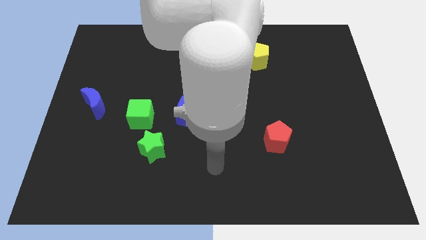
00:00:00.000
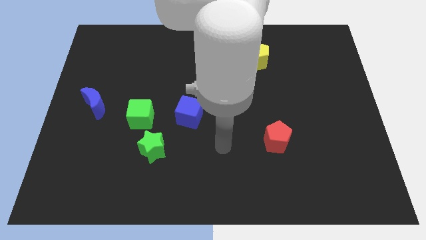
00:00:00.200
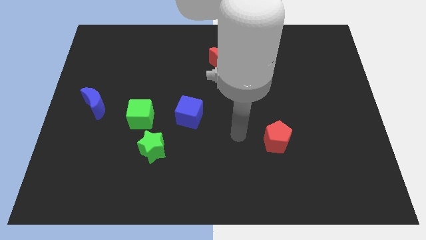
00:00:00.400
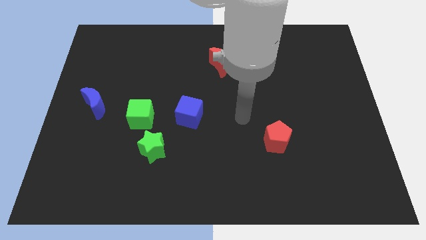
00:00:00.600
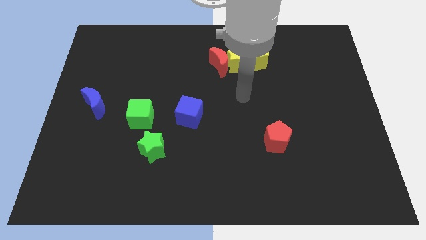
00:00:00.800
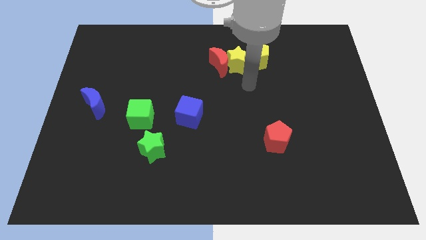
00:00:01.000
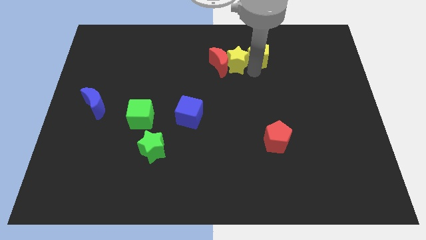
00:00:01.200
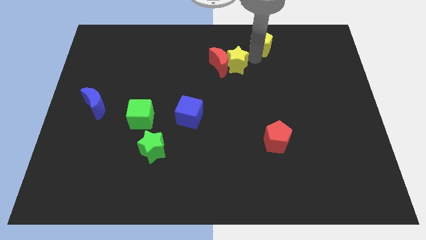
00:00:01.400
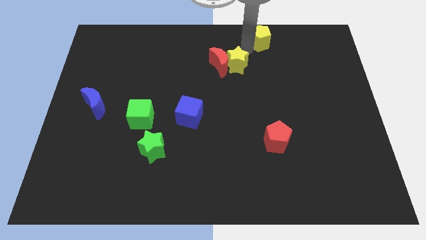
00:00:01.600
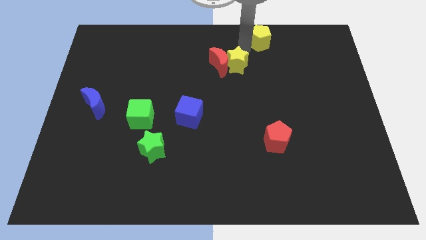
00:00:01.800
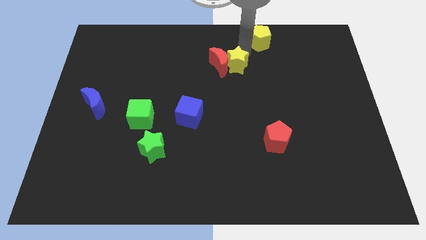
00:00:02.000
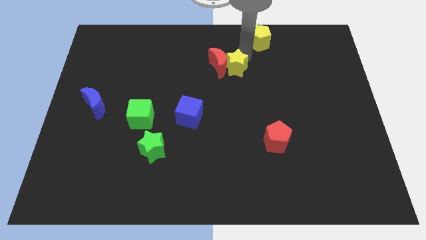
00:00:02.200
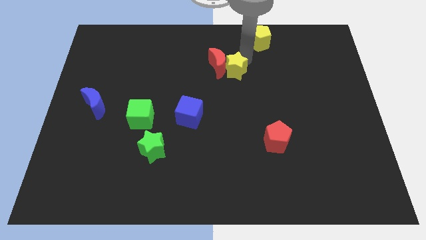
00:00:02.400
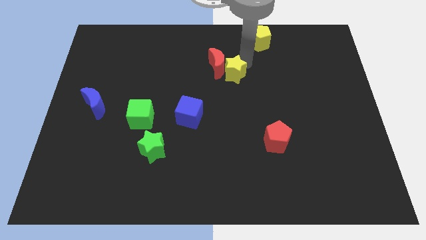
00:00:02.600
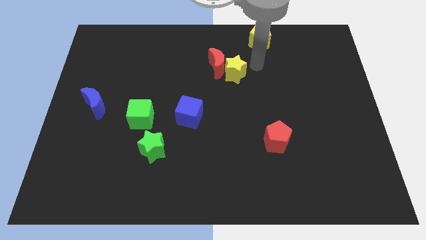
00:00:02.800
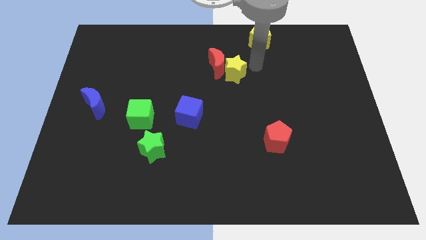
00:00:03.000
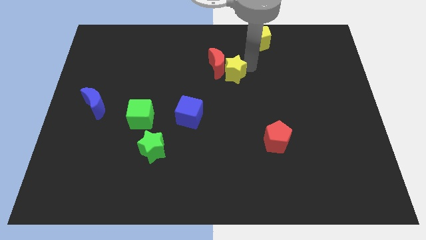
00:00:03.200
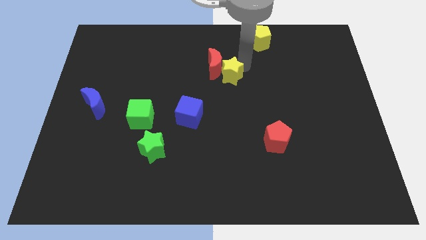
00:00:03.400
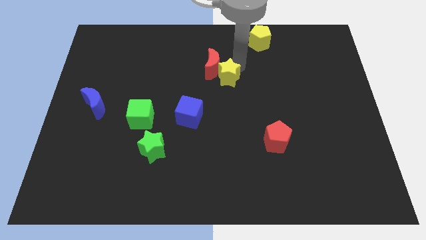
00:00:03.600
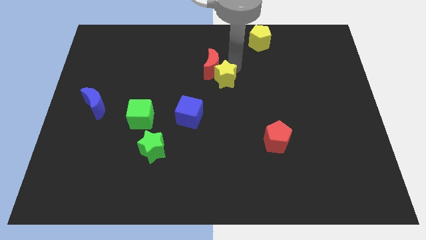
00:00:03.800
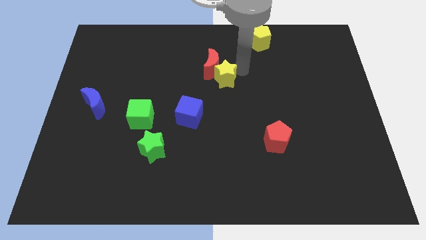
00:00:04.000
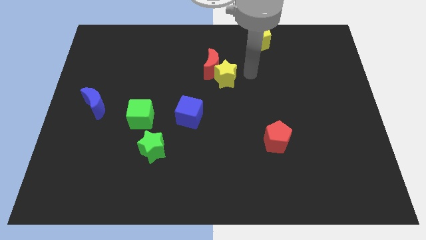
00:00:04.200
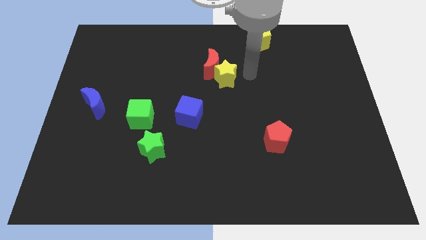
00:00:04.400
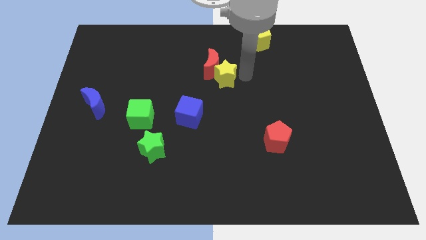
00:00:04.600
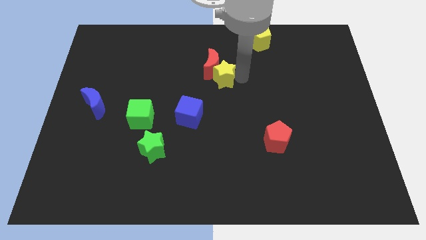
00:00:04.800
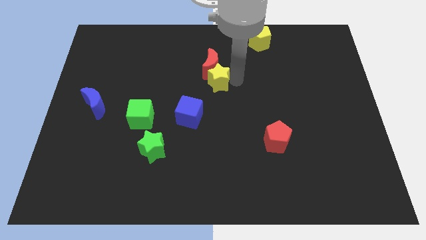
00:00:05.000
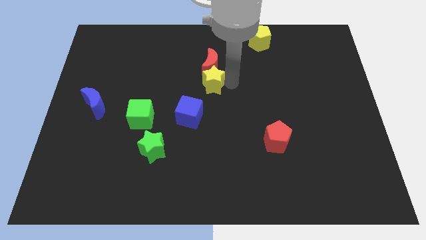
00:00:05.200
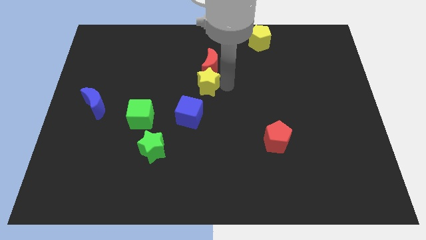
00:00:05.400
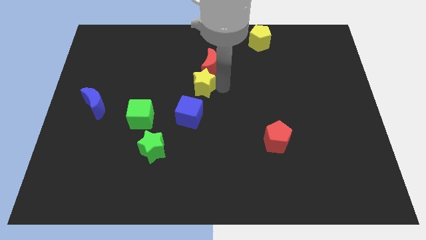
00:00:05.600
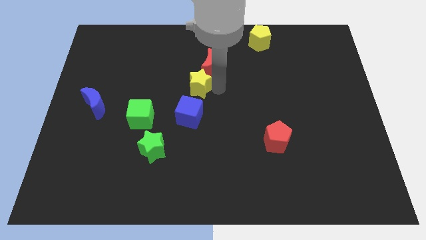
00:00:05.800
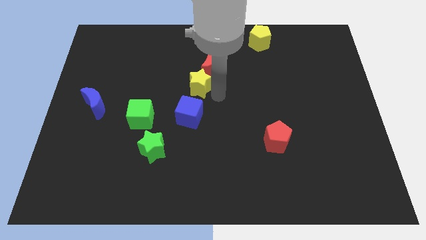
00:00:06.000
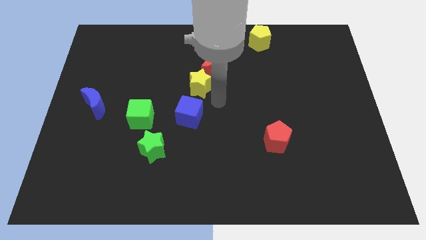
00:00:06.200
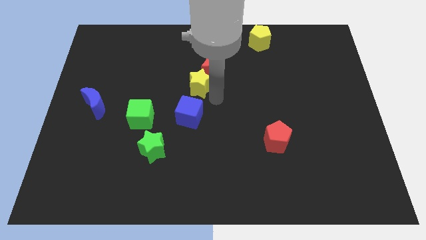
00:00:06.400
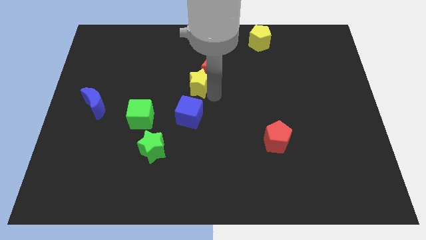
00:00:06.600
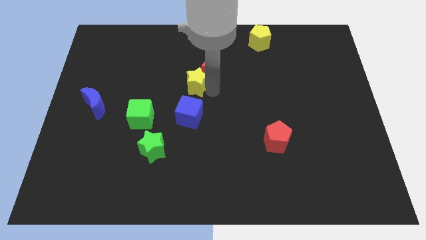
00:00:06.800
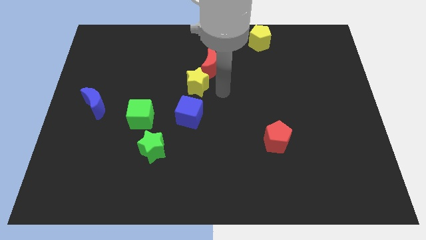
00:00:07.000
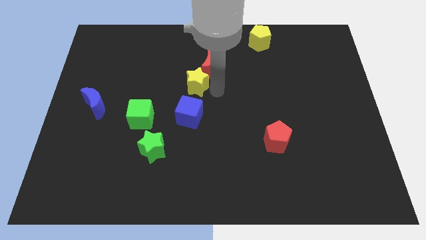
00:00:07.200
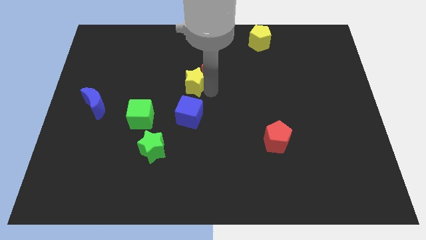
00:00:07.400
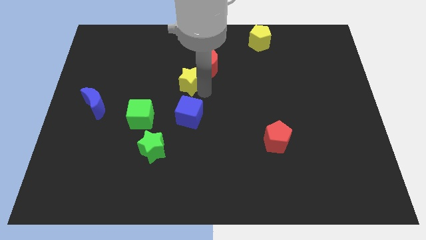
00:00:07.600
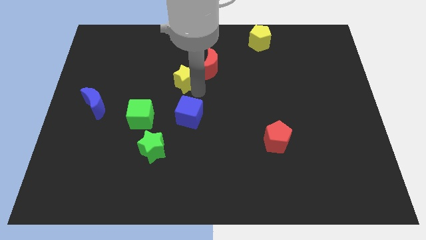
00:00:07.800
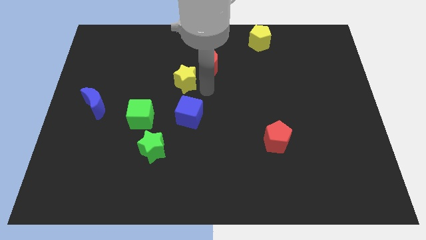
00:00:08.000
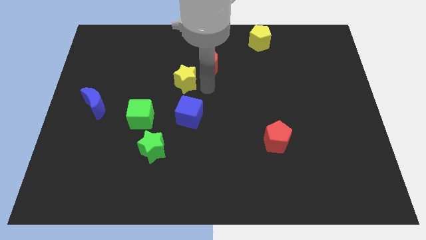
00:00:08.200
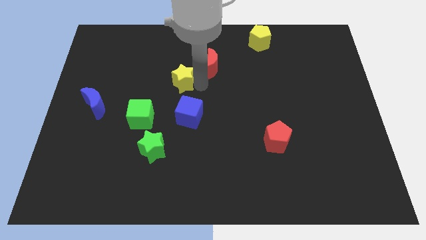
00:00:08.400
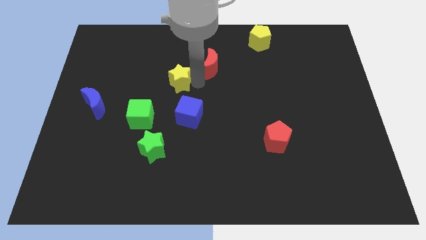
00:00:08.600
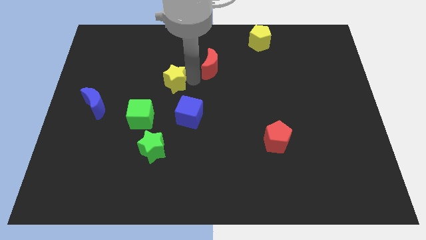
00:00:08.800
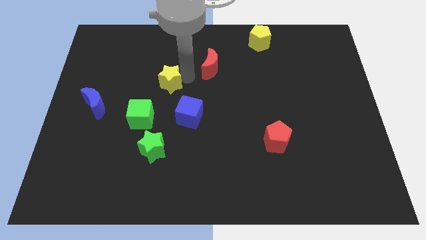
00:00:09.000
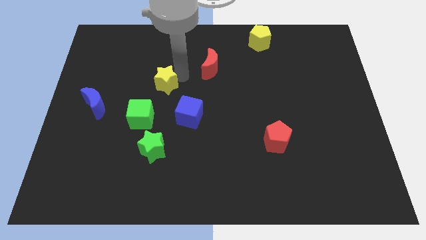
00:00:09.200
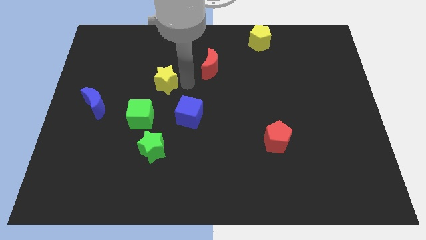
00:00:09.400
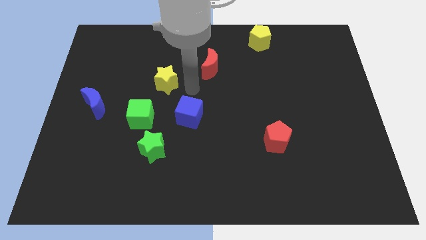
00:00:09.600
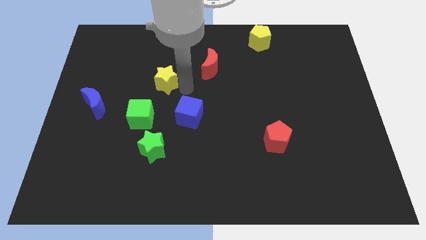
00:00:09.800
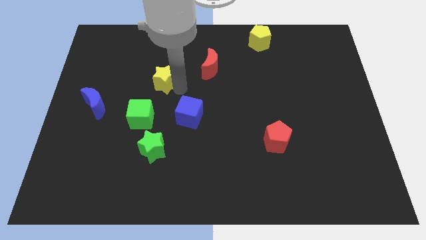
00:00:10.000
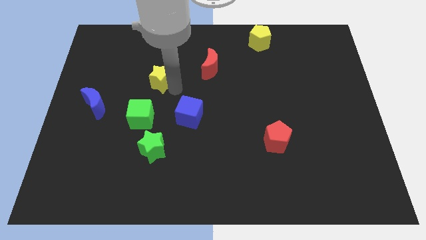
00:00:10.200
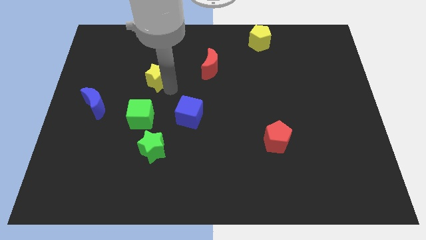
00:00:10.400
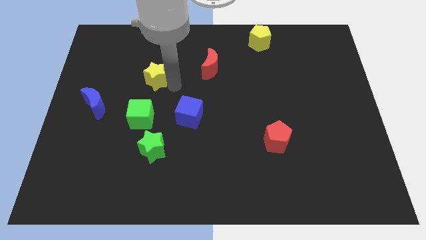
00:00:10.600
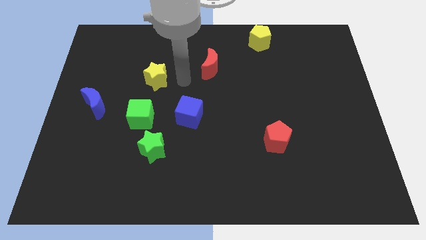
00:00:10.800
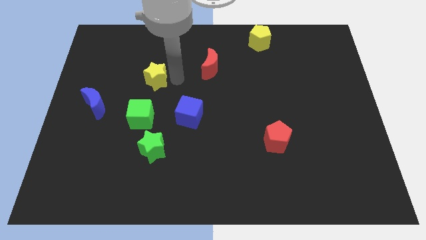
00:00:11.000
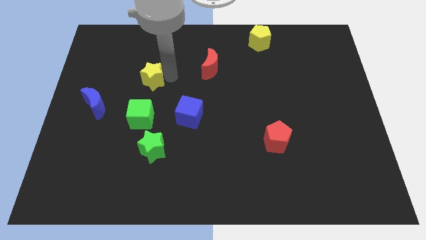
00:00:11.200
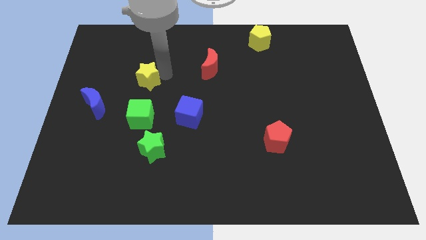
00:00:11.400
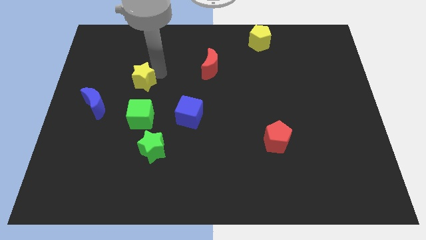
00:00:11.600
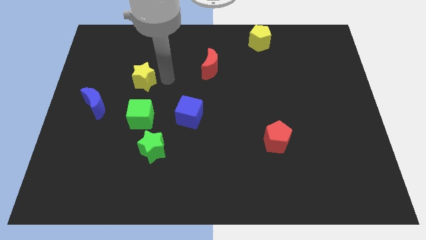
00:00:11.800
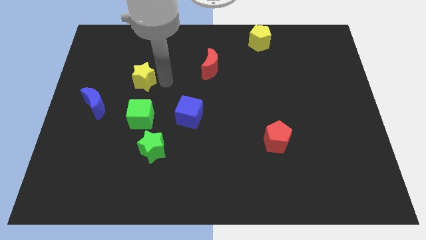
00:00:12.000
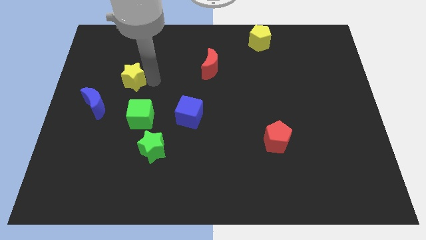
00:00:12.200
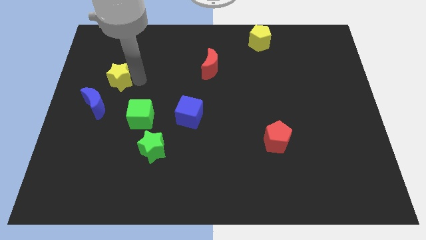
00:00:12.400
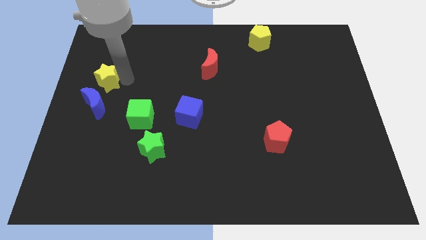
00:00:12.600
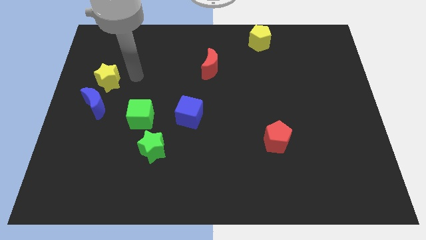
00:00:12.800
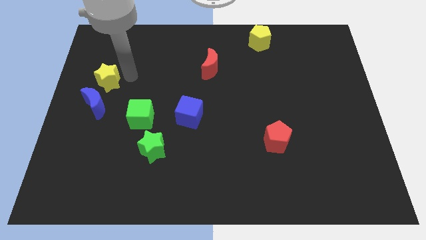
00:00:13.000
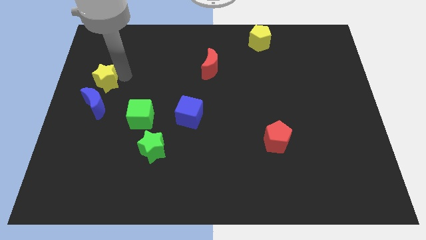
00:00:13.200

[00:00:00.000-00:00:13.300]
move the yellow star to the center left

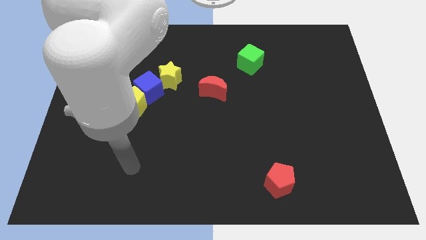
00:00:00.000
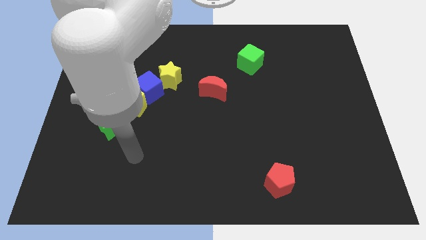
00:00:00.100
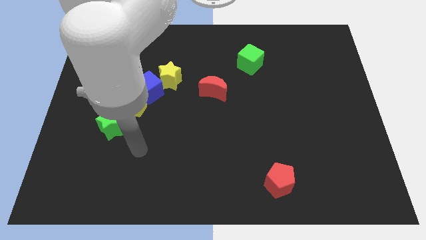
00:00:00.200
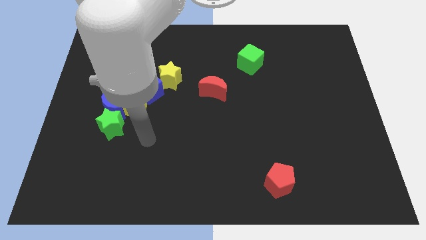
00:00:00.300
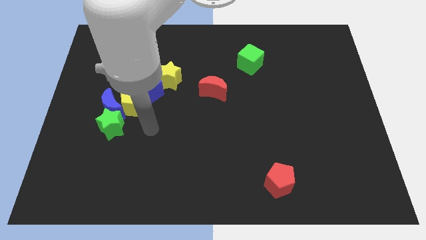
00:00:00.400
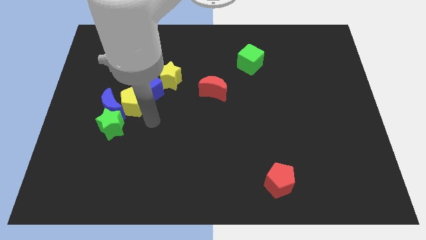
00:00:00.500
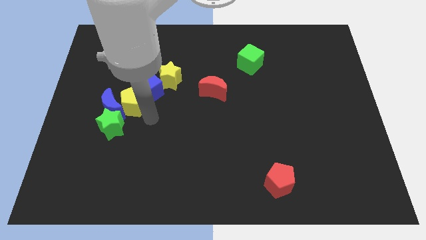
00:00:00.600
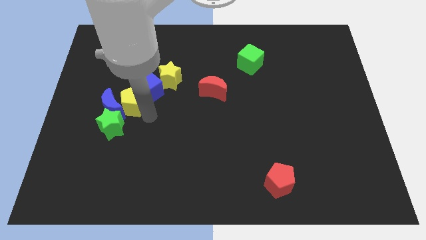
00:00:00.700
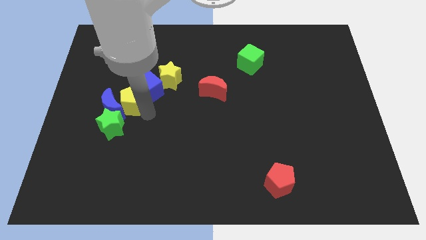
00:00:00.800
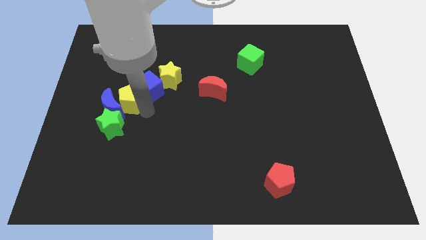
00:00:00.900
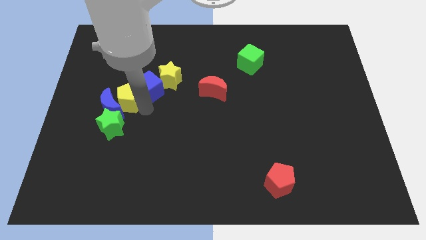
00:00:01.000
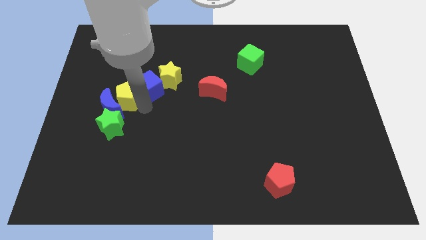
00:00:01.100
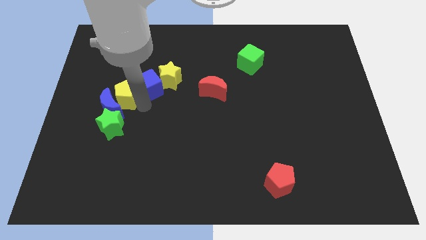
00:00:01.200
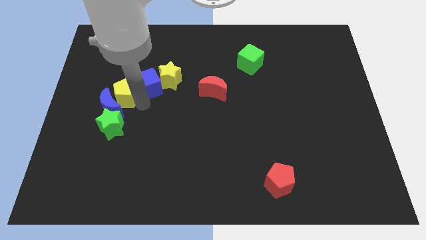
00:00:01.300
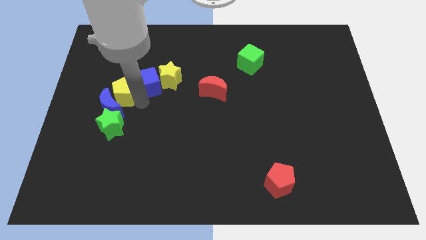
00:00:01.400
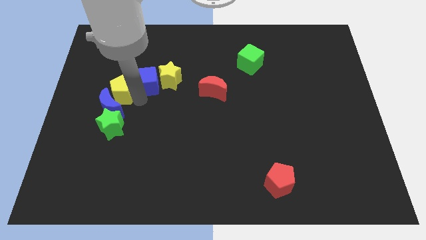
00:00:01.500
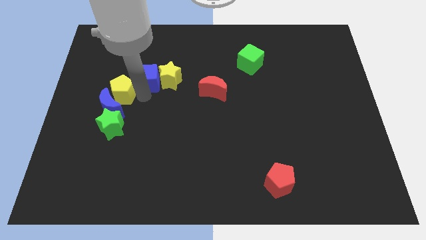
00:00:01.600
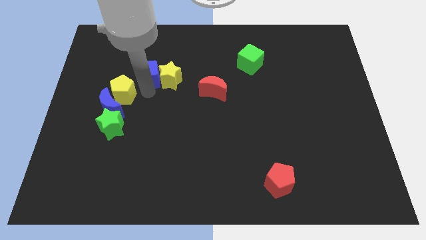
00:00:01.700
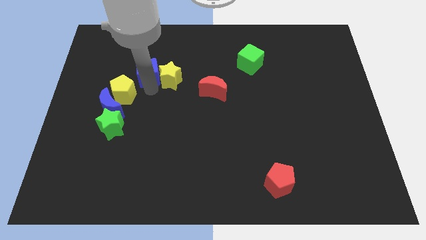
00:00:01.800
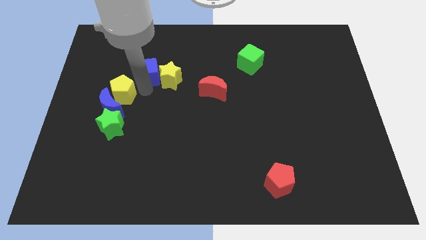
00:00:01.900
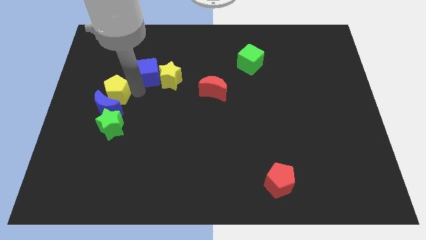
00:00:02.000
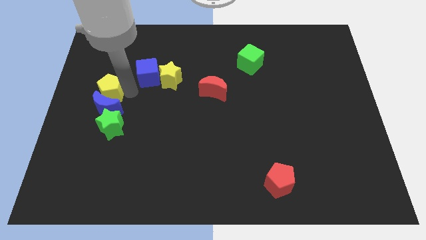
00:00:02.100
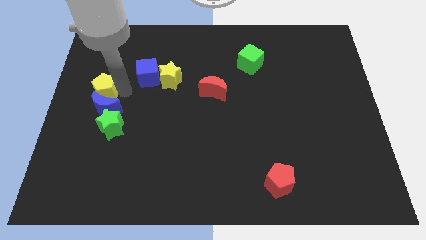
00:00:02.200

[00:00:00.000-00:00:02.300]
put the yellow pentagon to the left side
